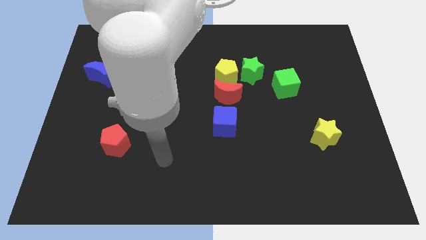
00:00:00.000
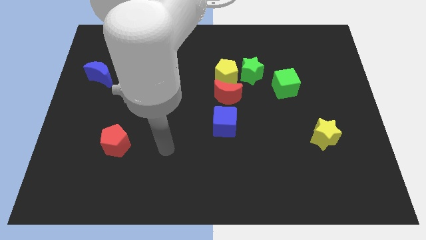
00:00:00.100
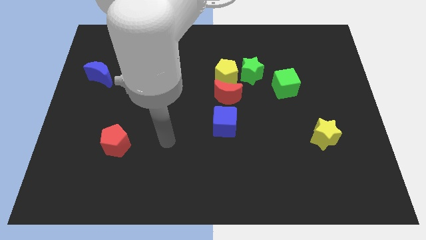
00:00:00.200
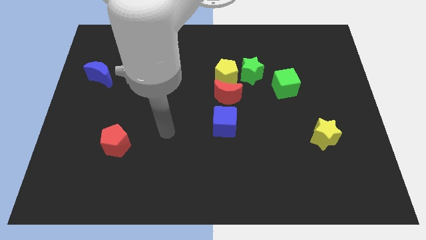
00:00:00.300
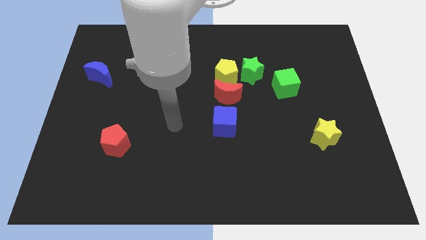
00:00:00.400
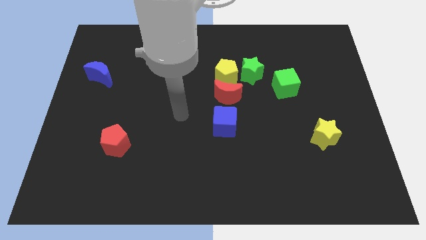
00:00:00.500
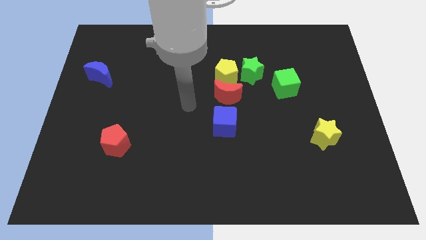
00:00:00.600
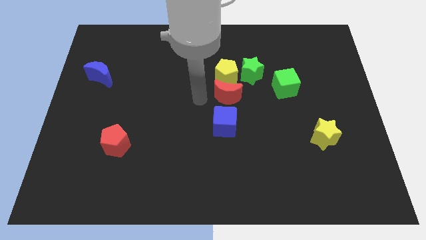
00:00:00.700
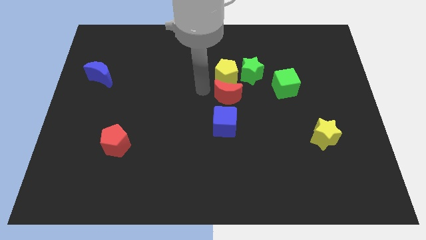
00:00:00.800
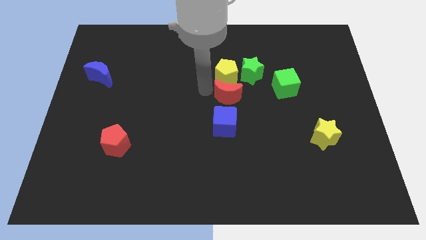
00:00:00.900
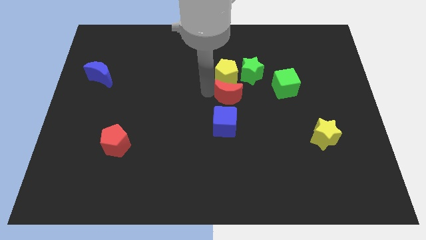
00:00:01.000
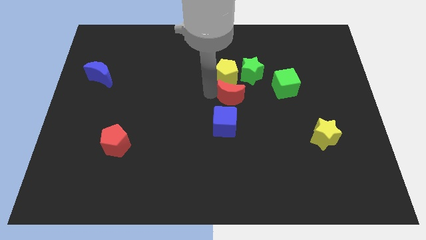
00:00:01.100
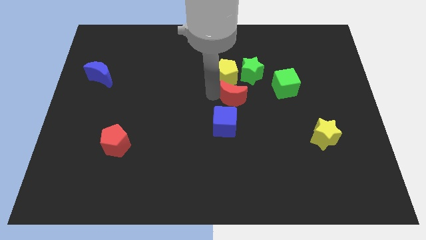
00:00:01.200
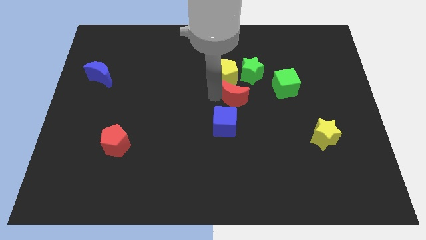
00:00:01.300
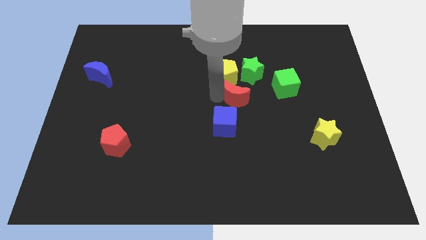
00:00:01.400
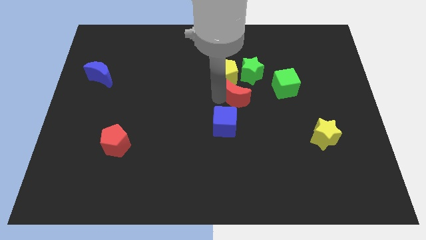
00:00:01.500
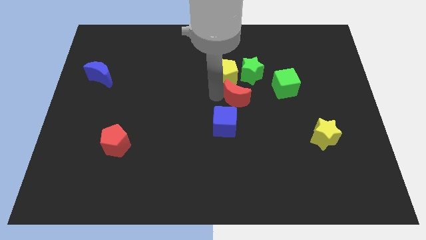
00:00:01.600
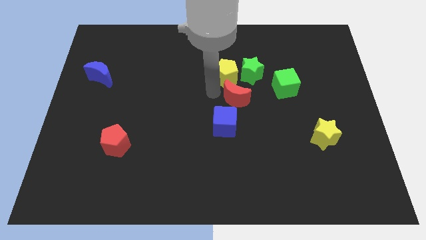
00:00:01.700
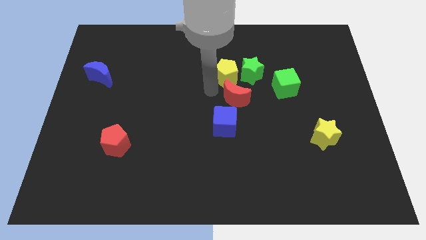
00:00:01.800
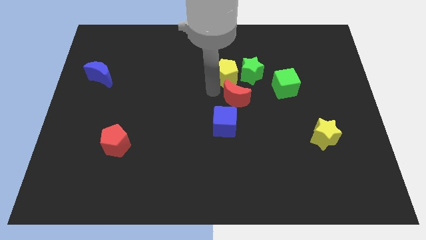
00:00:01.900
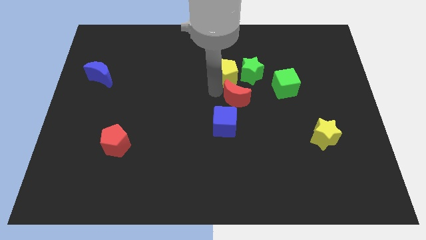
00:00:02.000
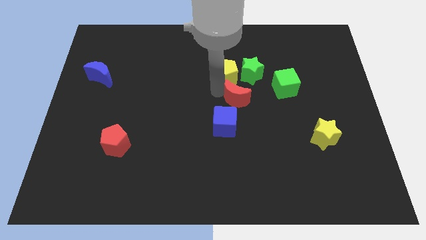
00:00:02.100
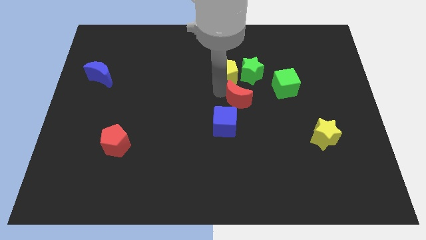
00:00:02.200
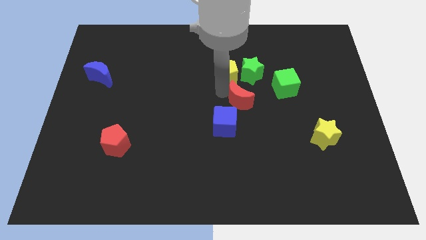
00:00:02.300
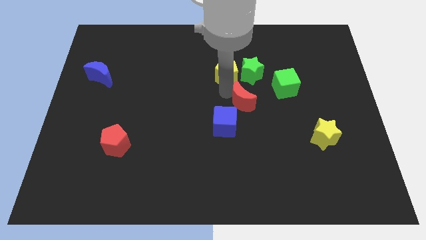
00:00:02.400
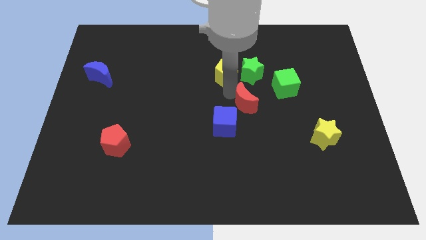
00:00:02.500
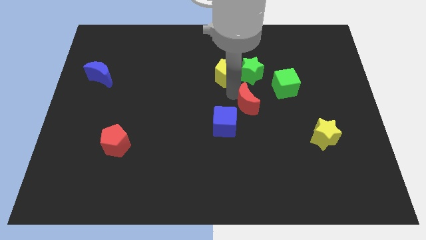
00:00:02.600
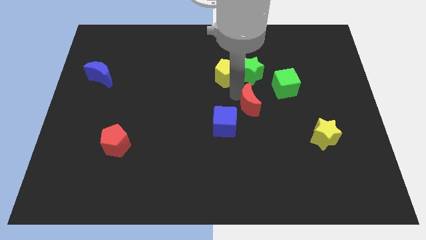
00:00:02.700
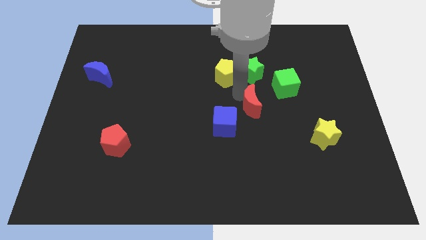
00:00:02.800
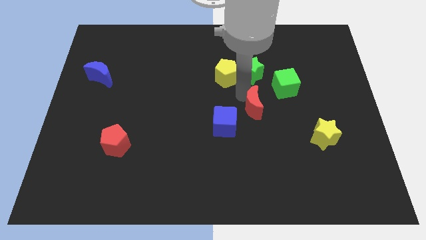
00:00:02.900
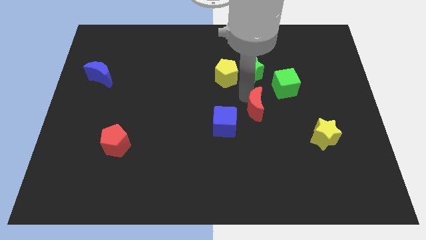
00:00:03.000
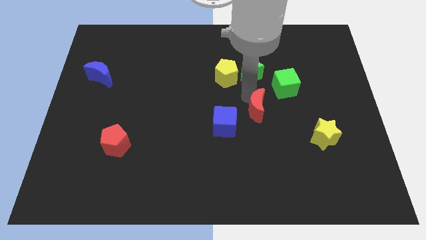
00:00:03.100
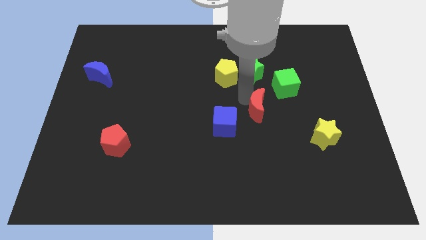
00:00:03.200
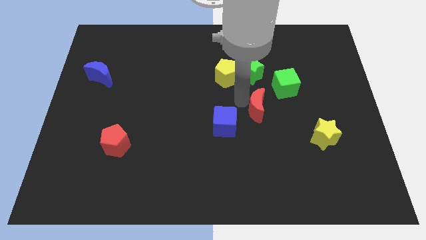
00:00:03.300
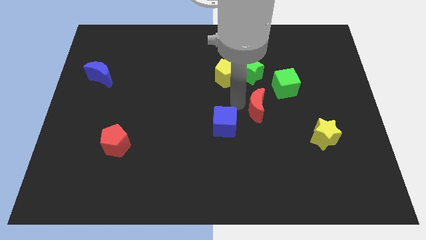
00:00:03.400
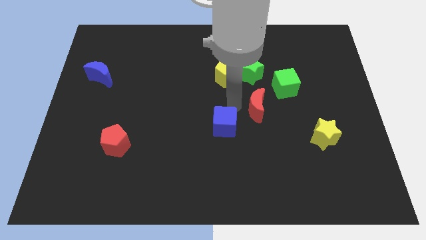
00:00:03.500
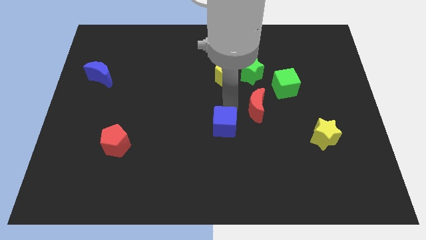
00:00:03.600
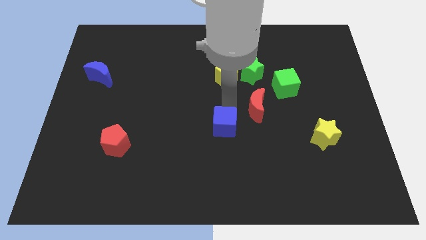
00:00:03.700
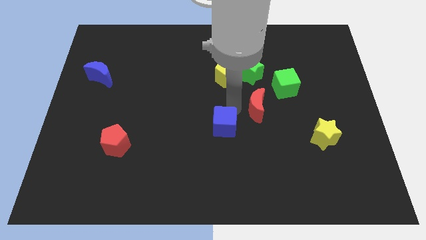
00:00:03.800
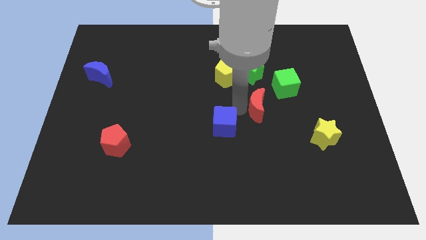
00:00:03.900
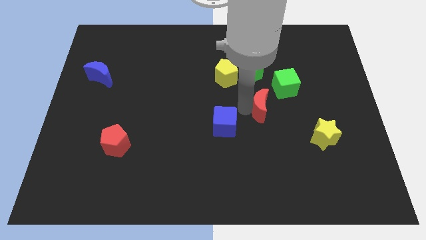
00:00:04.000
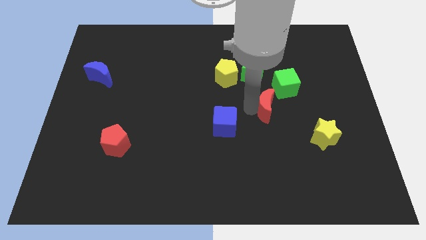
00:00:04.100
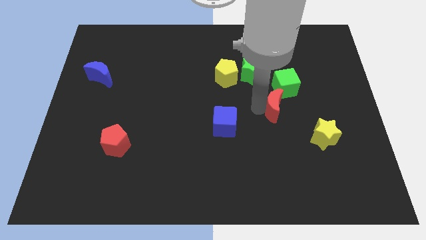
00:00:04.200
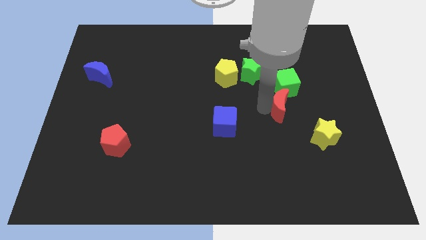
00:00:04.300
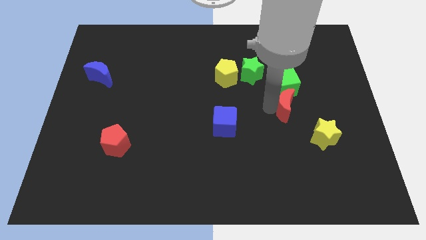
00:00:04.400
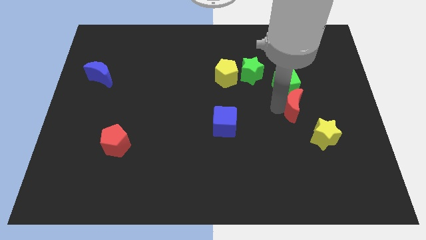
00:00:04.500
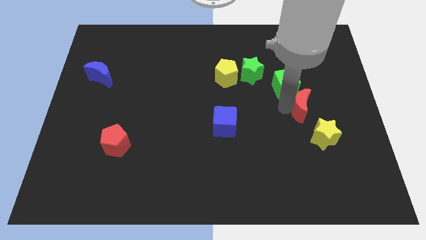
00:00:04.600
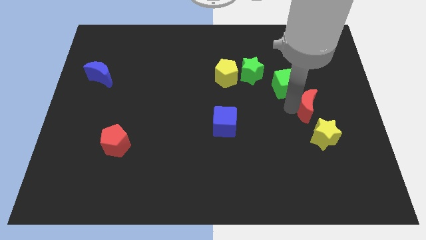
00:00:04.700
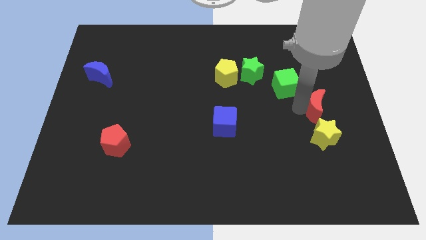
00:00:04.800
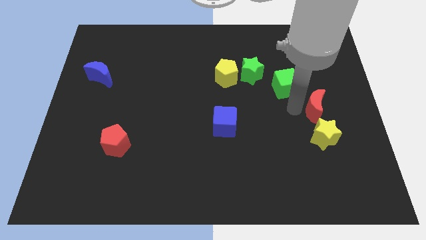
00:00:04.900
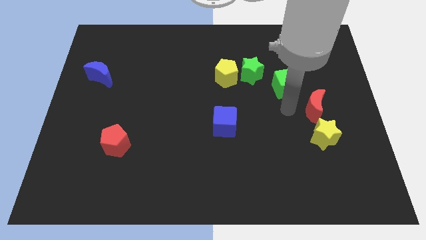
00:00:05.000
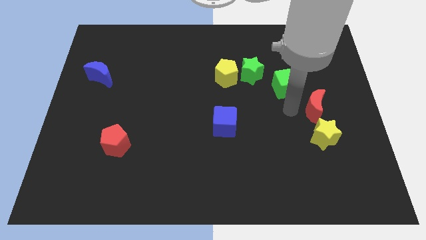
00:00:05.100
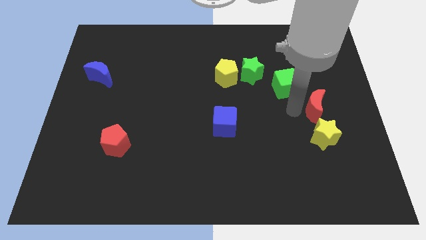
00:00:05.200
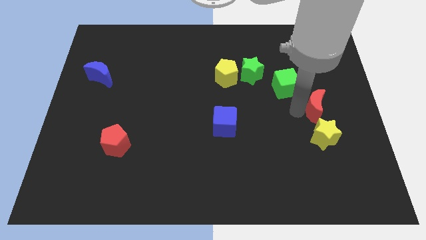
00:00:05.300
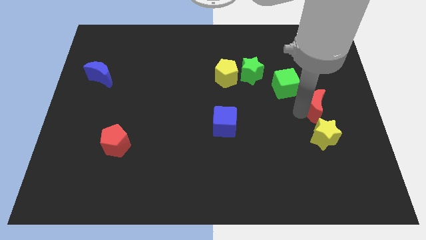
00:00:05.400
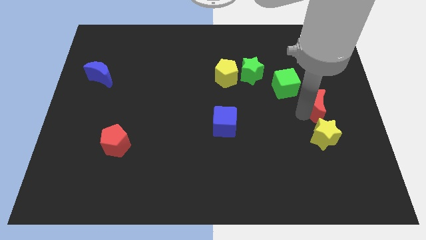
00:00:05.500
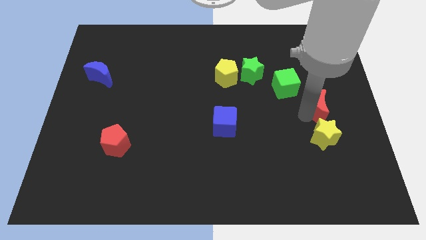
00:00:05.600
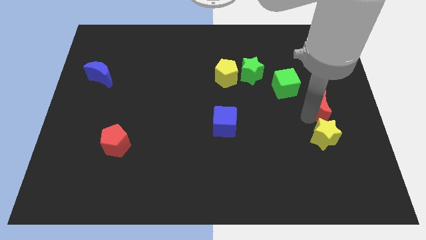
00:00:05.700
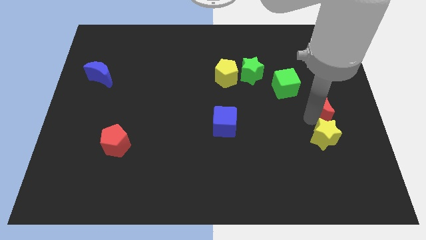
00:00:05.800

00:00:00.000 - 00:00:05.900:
move the red moon to the right side

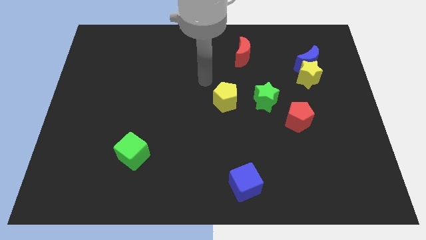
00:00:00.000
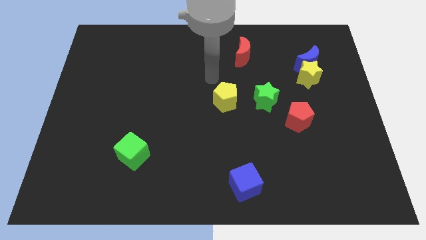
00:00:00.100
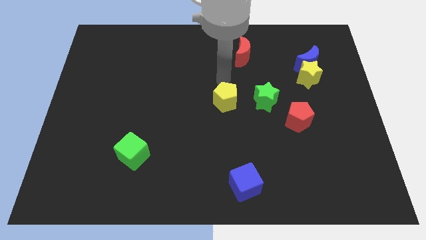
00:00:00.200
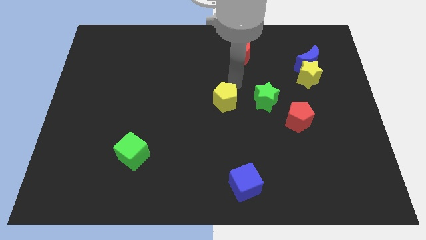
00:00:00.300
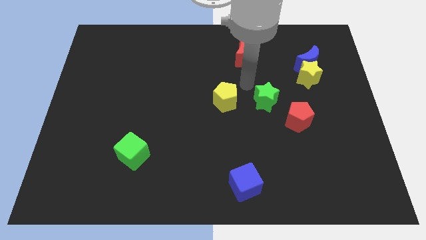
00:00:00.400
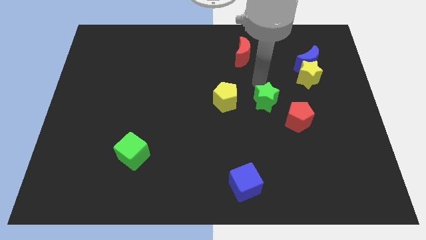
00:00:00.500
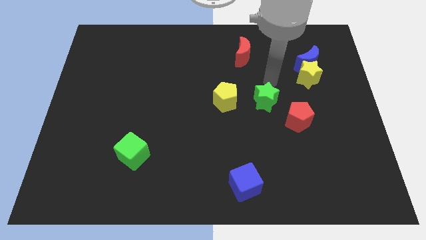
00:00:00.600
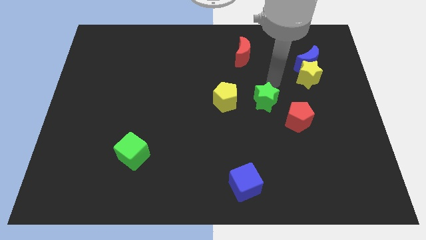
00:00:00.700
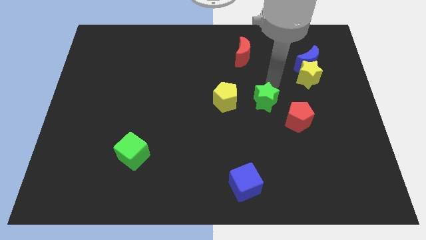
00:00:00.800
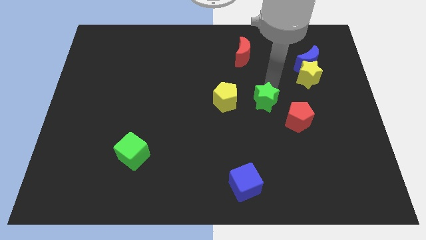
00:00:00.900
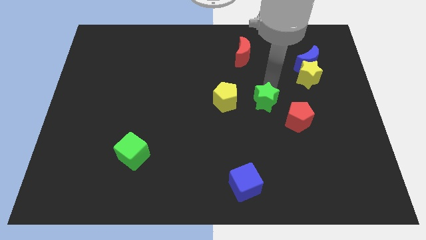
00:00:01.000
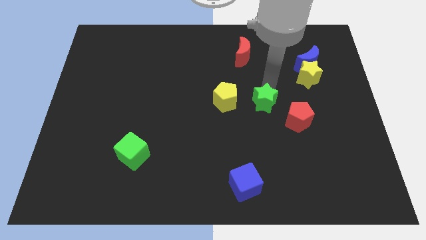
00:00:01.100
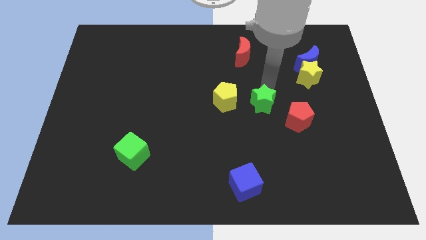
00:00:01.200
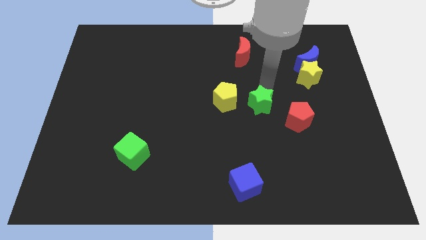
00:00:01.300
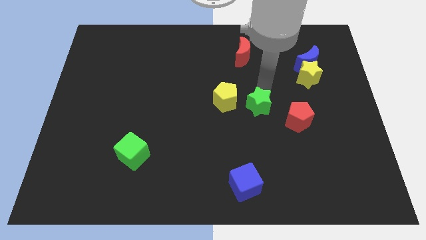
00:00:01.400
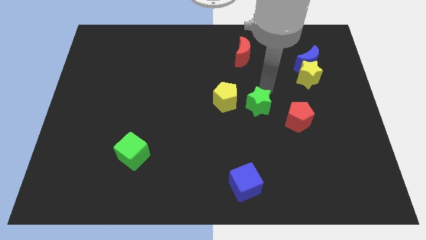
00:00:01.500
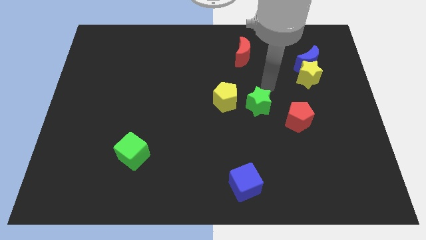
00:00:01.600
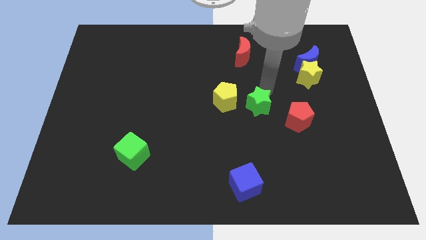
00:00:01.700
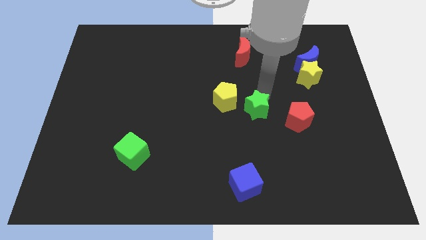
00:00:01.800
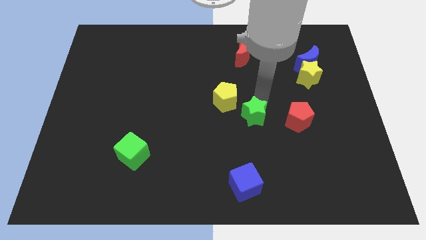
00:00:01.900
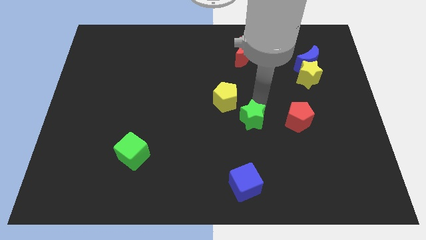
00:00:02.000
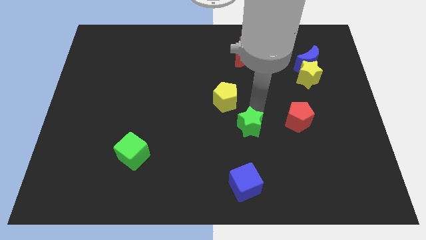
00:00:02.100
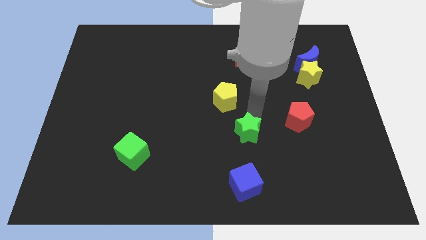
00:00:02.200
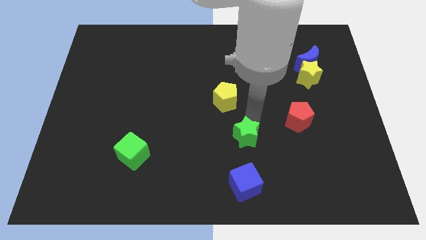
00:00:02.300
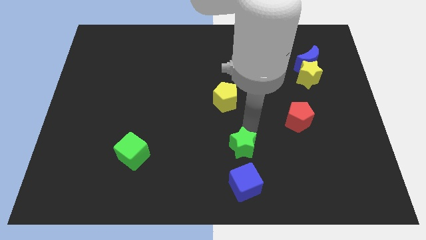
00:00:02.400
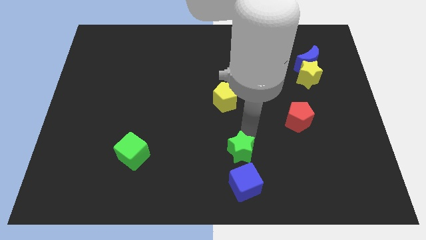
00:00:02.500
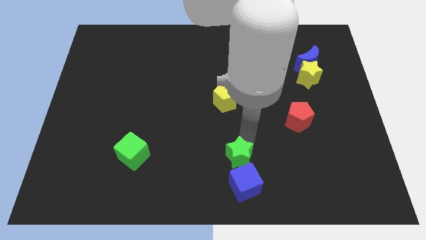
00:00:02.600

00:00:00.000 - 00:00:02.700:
put the green star to the bottom side
